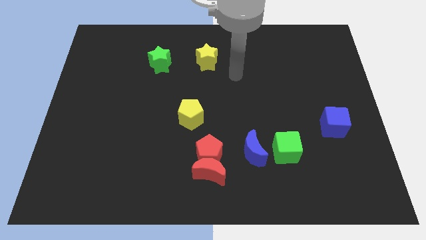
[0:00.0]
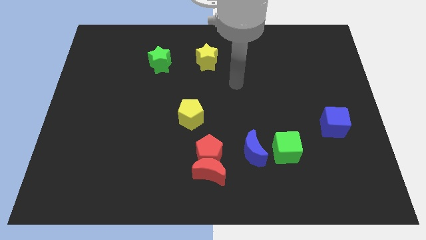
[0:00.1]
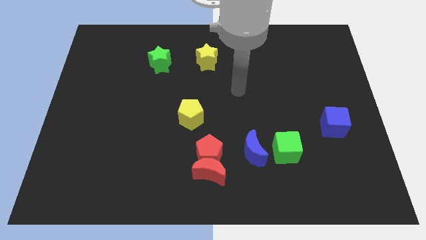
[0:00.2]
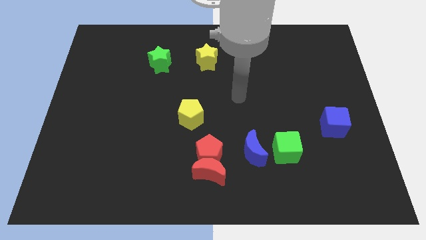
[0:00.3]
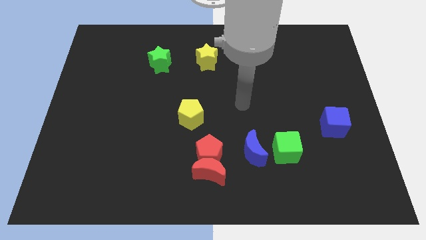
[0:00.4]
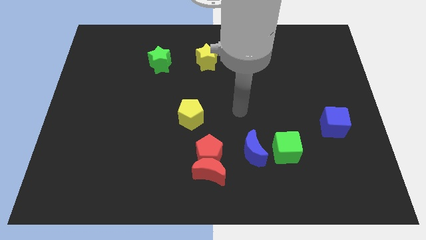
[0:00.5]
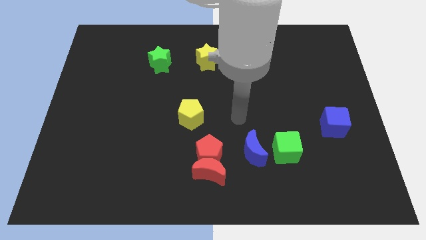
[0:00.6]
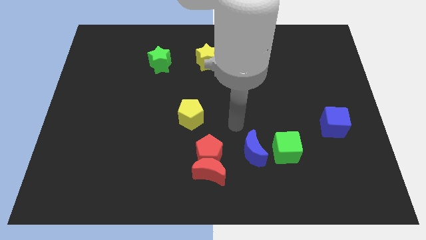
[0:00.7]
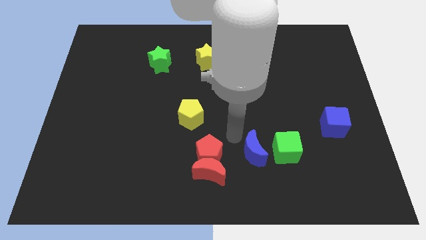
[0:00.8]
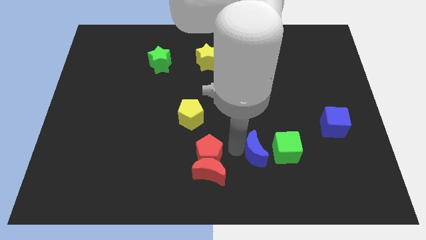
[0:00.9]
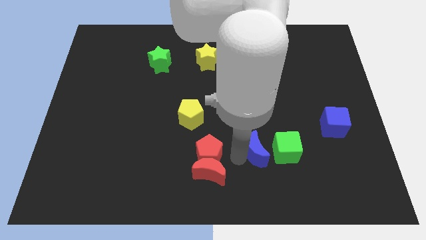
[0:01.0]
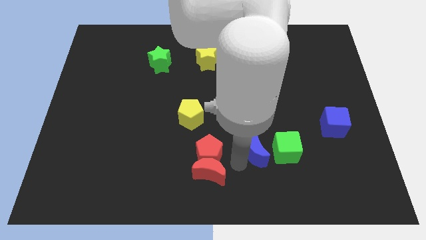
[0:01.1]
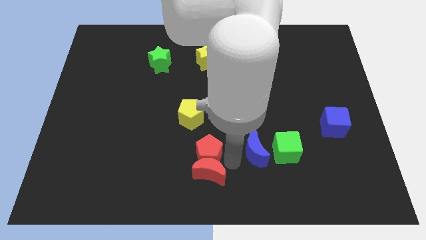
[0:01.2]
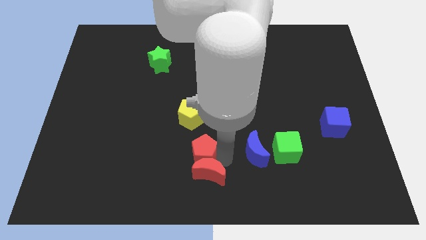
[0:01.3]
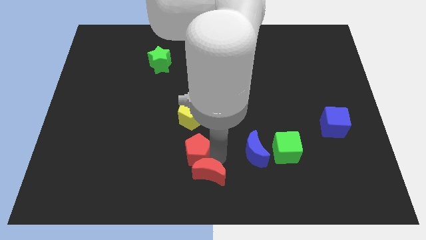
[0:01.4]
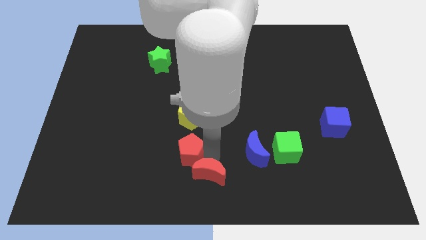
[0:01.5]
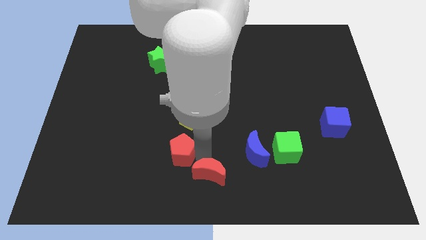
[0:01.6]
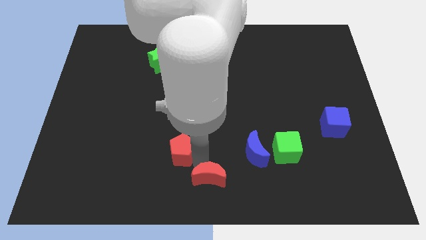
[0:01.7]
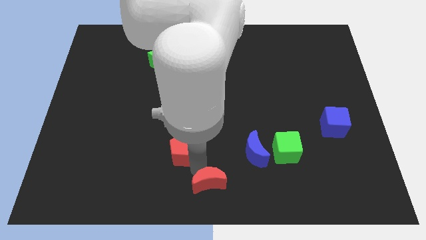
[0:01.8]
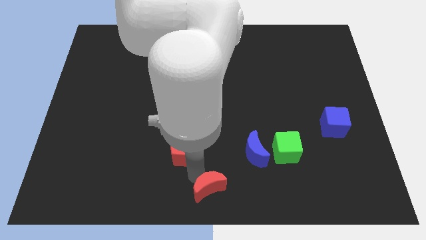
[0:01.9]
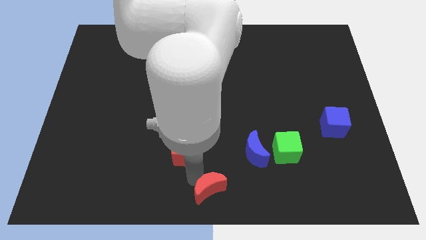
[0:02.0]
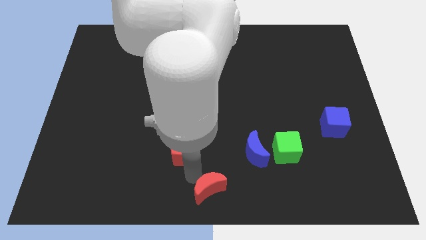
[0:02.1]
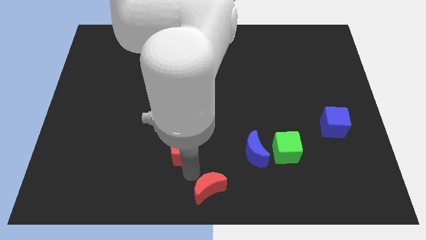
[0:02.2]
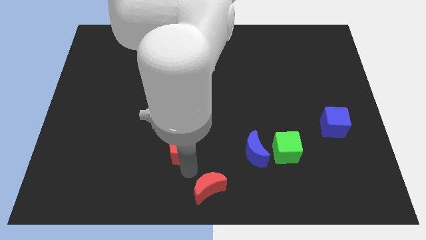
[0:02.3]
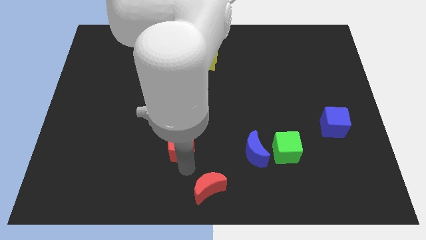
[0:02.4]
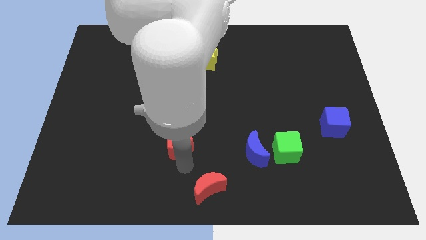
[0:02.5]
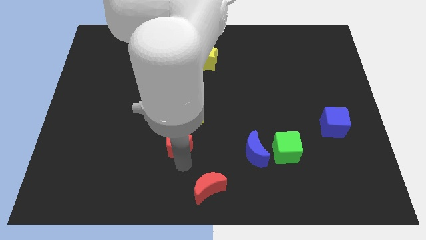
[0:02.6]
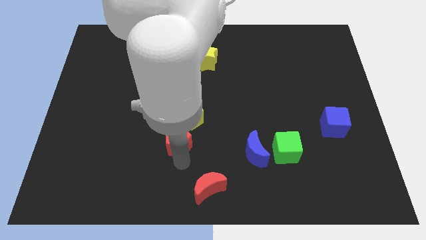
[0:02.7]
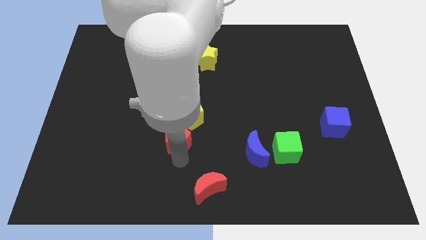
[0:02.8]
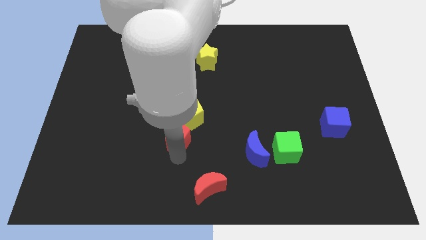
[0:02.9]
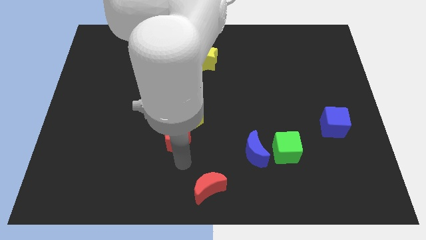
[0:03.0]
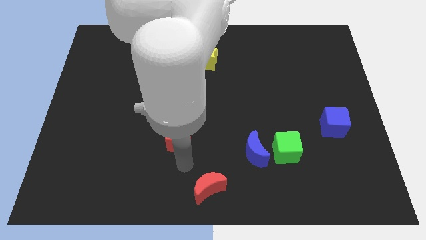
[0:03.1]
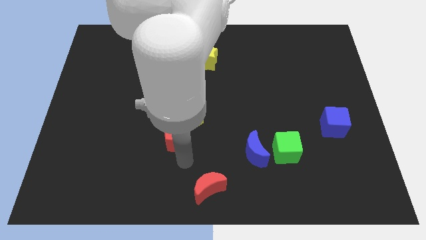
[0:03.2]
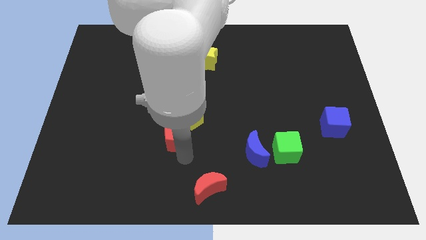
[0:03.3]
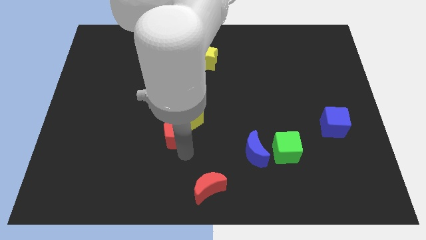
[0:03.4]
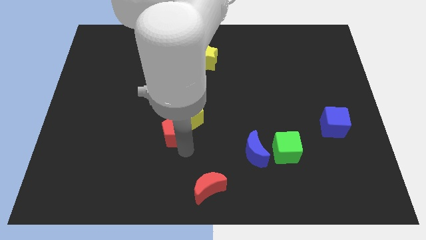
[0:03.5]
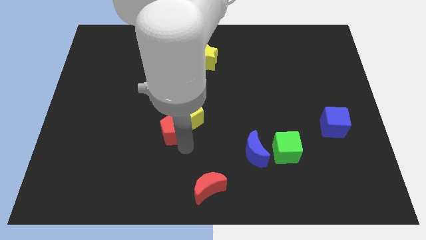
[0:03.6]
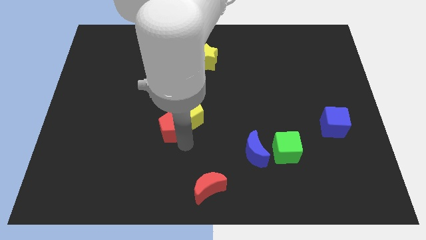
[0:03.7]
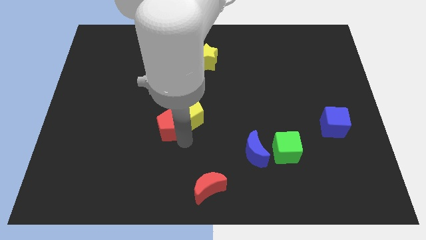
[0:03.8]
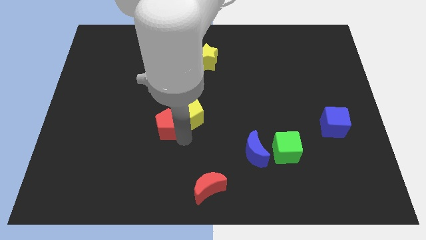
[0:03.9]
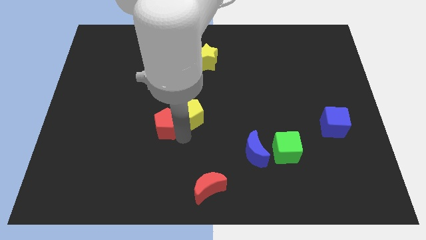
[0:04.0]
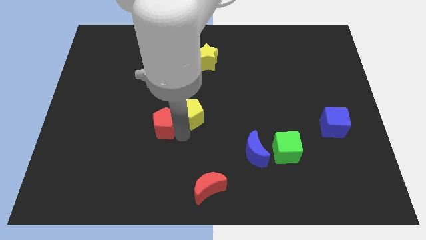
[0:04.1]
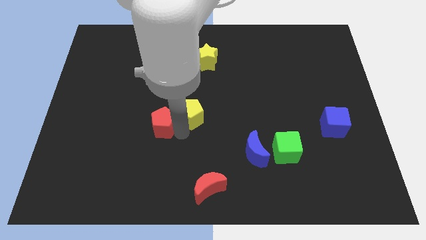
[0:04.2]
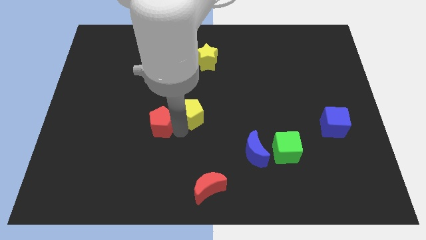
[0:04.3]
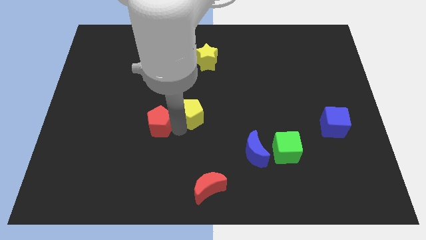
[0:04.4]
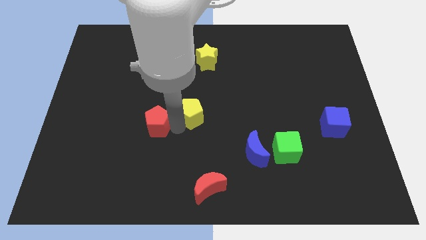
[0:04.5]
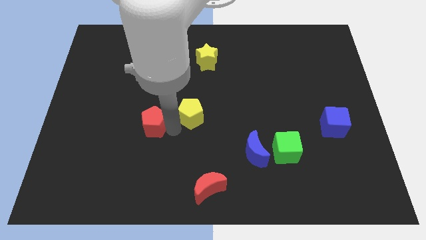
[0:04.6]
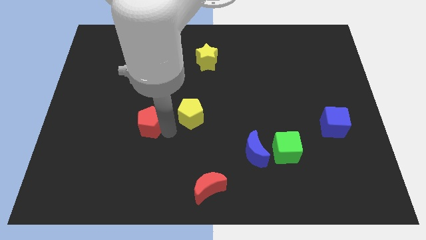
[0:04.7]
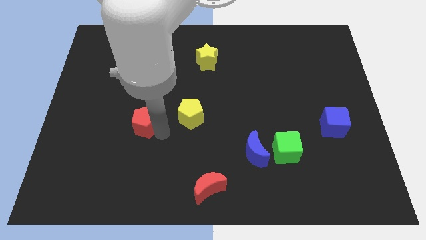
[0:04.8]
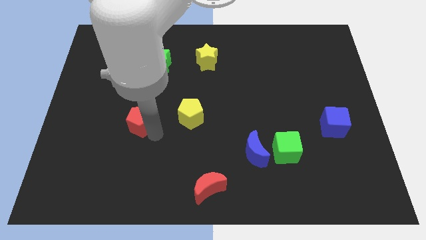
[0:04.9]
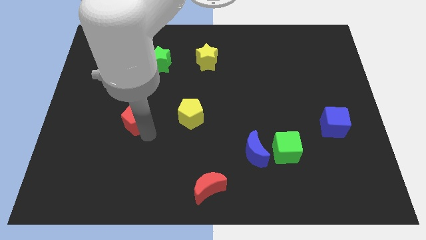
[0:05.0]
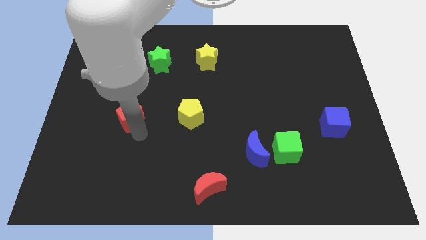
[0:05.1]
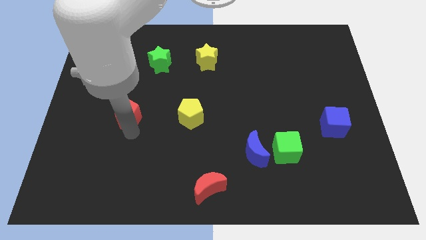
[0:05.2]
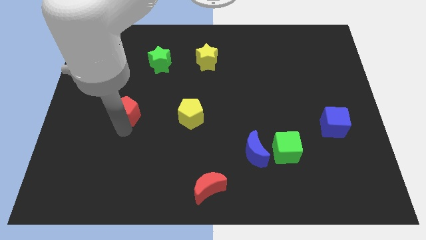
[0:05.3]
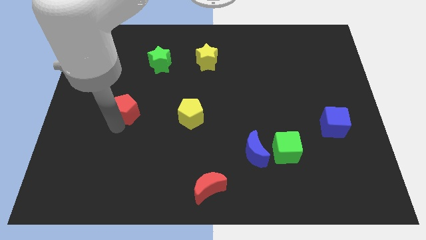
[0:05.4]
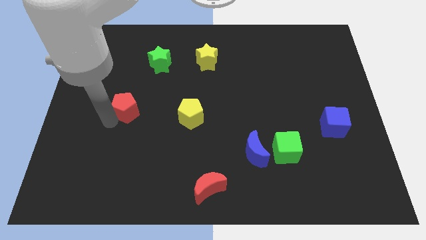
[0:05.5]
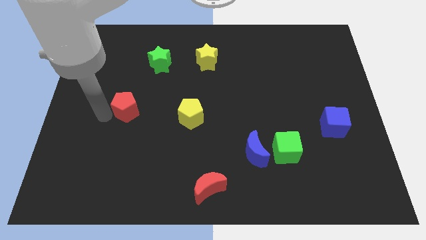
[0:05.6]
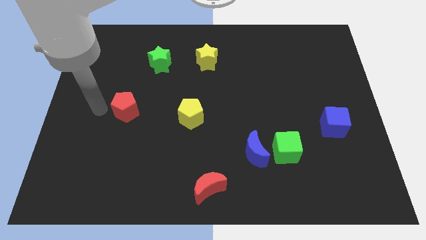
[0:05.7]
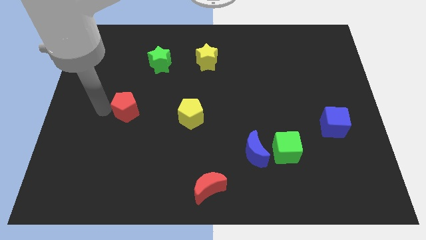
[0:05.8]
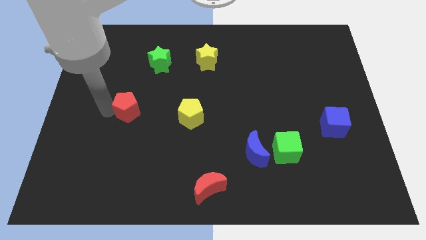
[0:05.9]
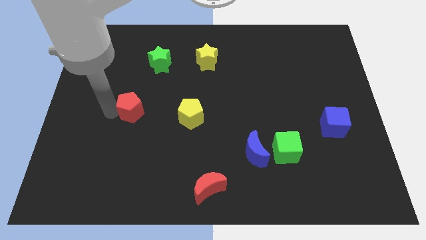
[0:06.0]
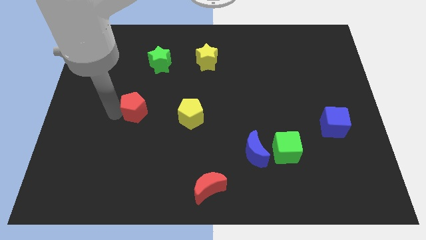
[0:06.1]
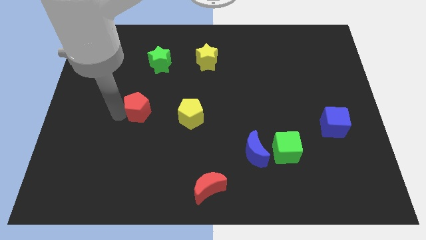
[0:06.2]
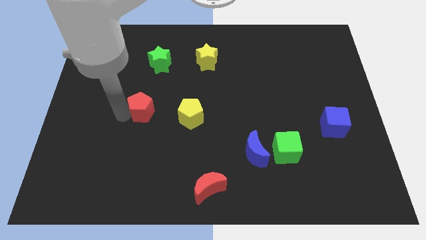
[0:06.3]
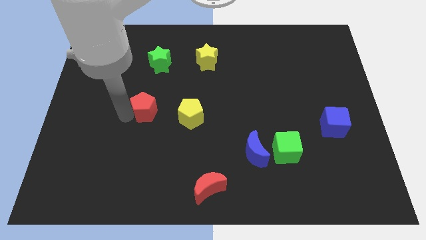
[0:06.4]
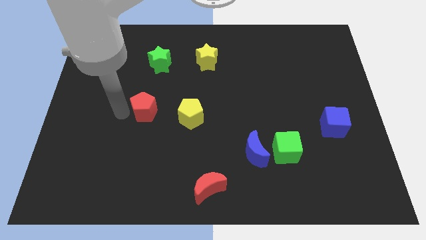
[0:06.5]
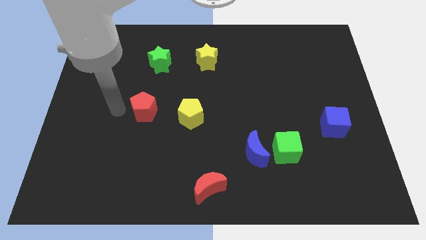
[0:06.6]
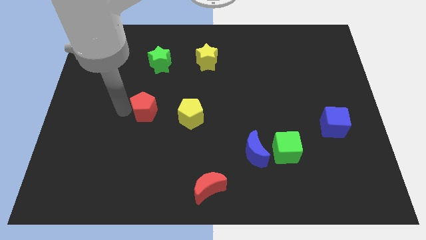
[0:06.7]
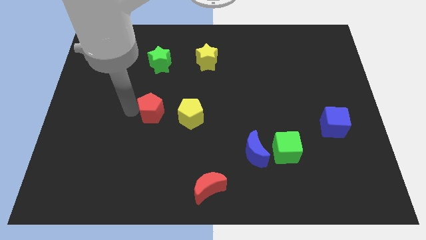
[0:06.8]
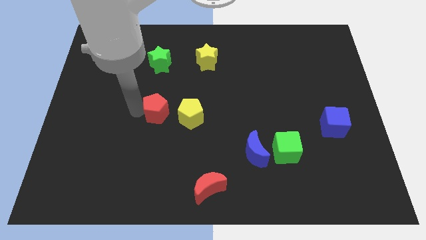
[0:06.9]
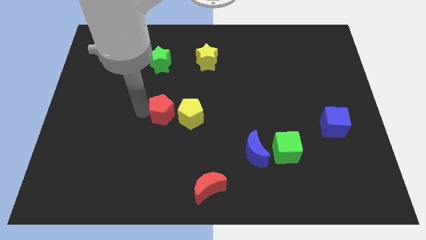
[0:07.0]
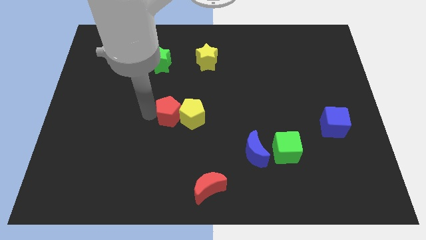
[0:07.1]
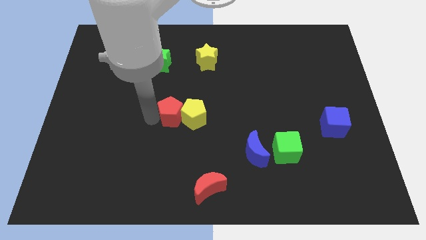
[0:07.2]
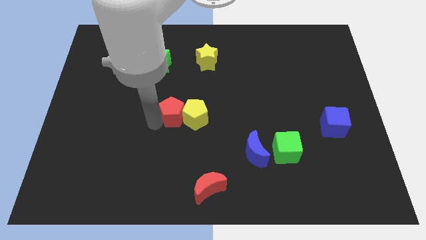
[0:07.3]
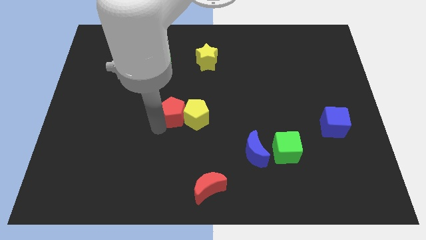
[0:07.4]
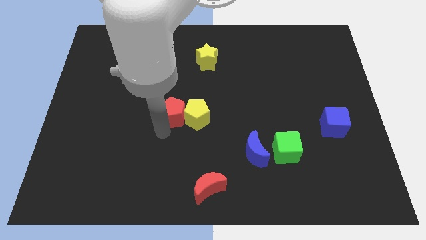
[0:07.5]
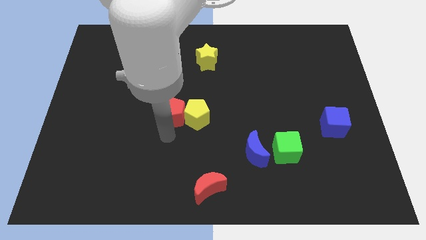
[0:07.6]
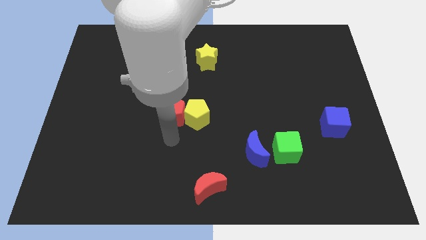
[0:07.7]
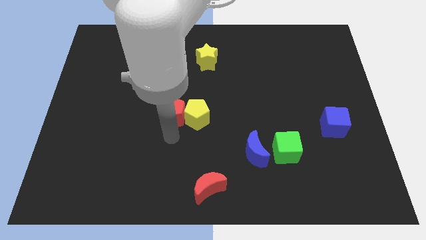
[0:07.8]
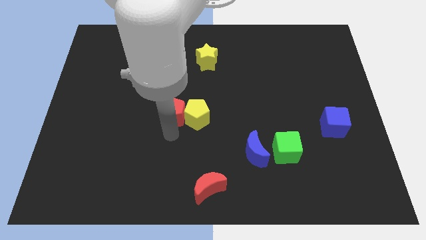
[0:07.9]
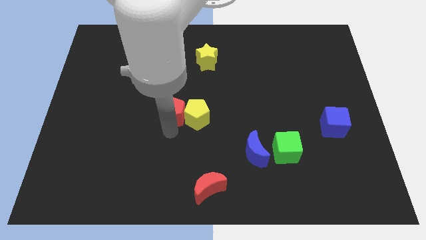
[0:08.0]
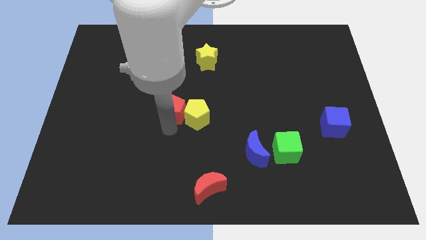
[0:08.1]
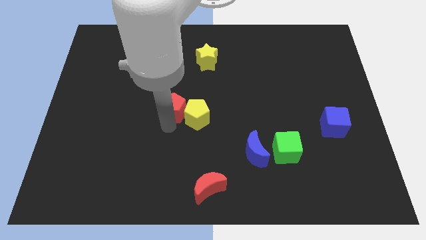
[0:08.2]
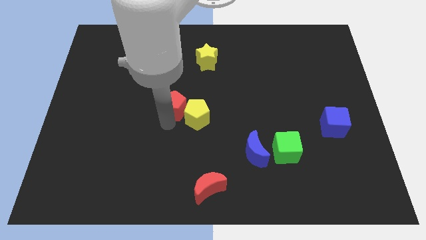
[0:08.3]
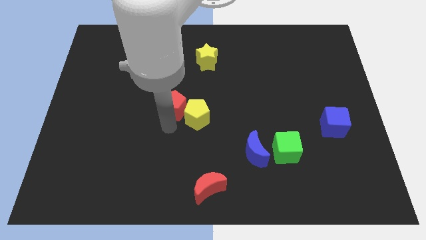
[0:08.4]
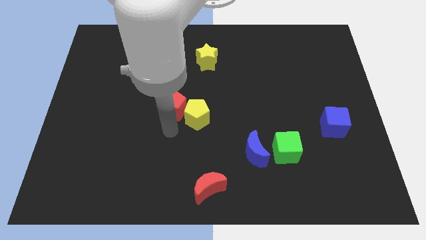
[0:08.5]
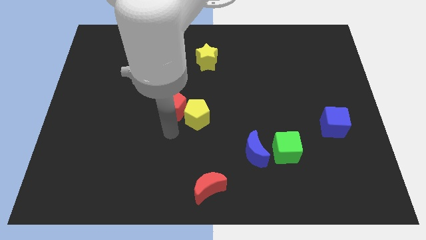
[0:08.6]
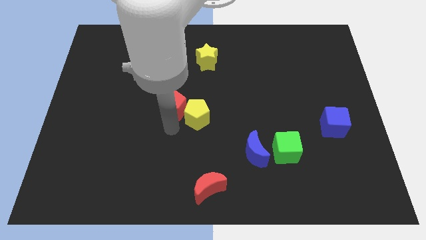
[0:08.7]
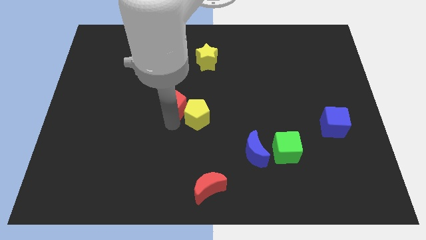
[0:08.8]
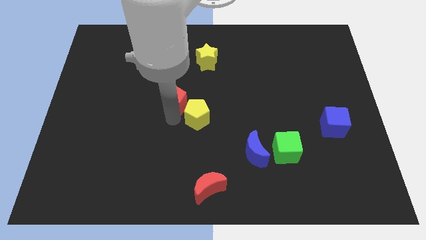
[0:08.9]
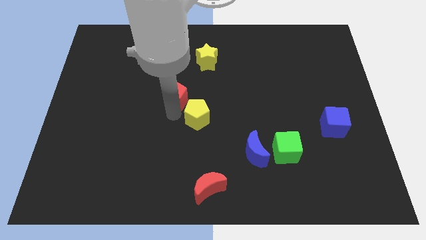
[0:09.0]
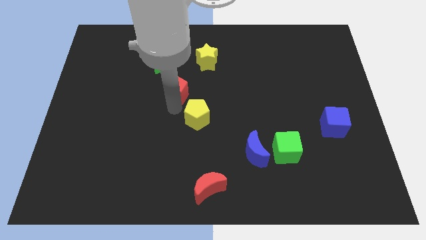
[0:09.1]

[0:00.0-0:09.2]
slide the red pentagon to the bottom right of the green star
